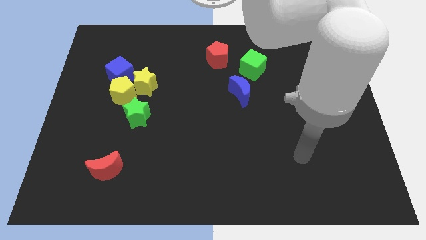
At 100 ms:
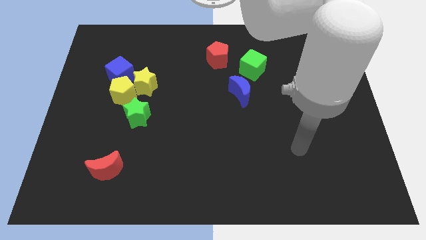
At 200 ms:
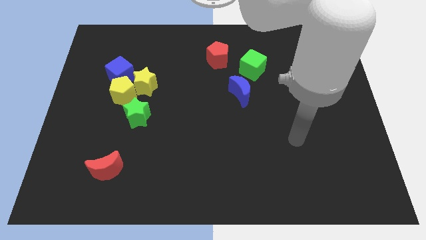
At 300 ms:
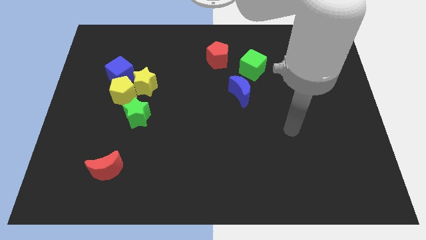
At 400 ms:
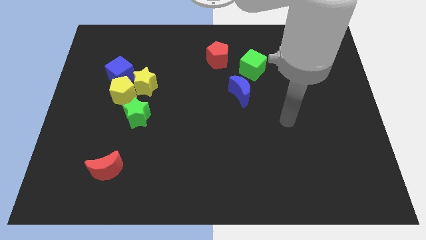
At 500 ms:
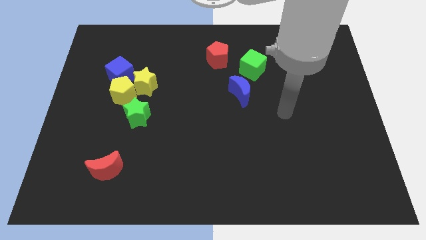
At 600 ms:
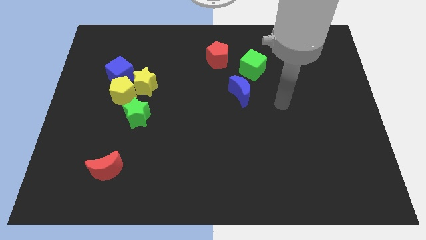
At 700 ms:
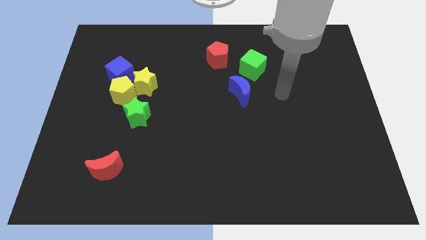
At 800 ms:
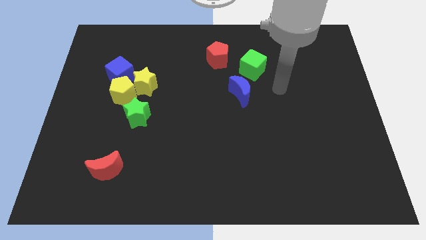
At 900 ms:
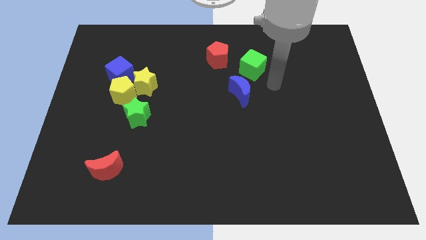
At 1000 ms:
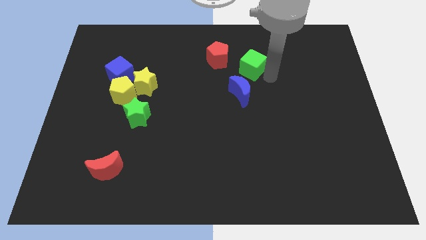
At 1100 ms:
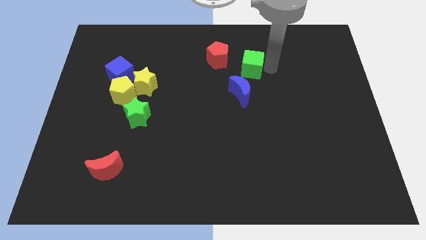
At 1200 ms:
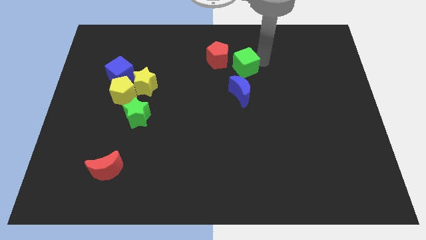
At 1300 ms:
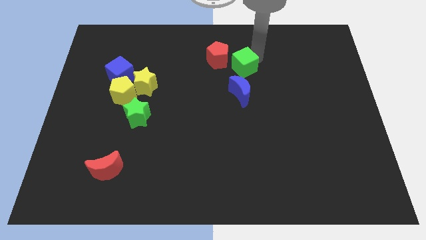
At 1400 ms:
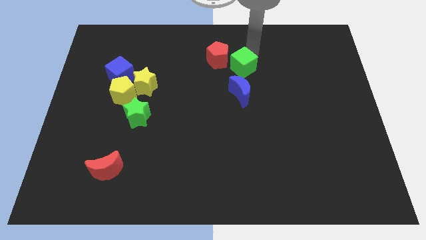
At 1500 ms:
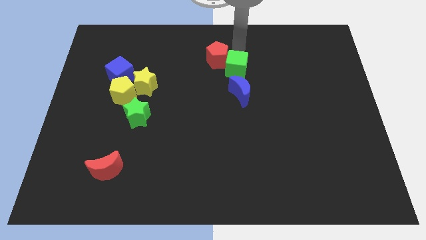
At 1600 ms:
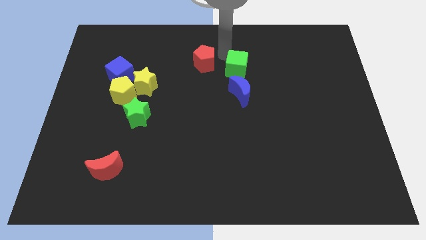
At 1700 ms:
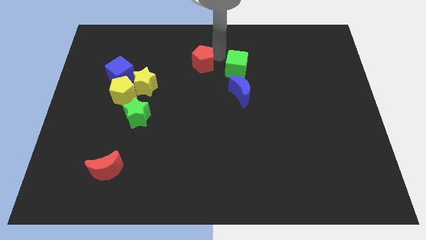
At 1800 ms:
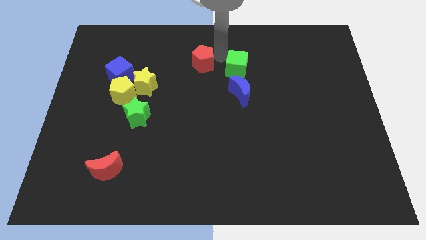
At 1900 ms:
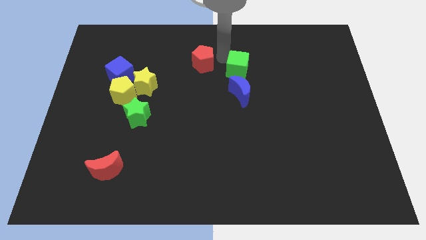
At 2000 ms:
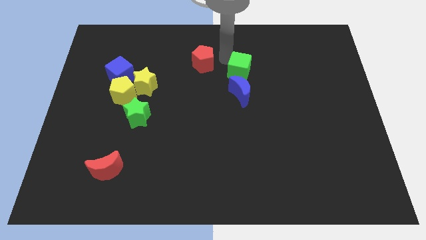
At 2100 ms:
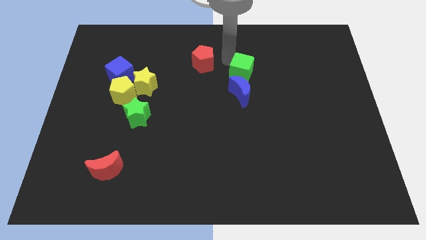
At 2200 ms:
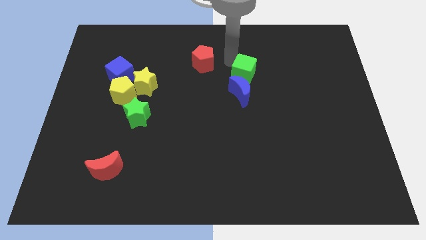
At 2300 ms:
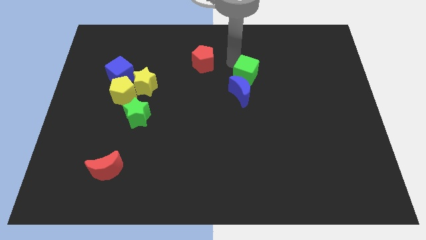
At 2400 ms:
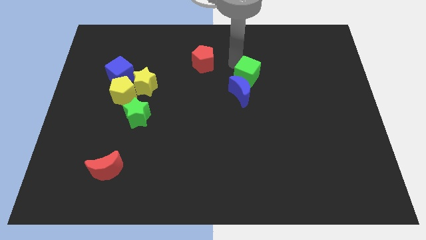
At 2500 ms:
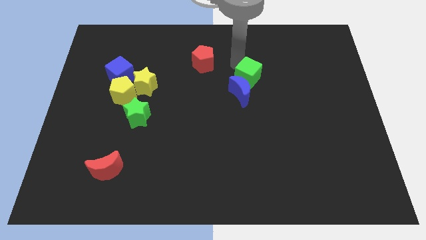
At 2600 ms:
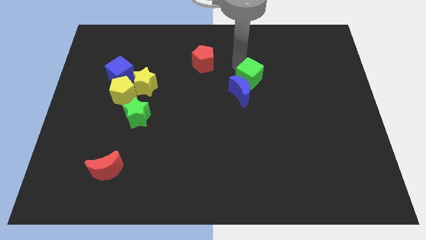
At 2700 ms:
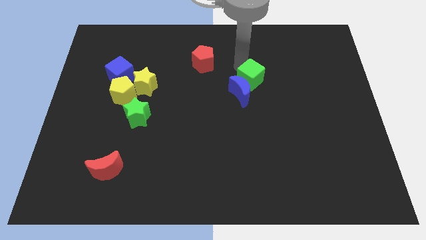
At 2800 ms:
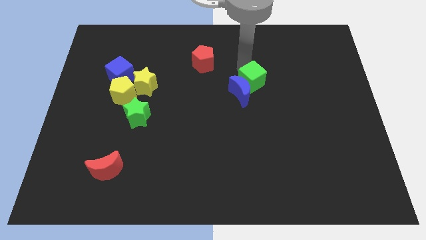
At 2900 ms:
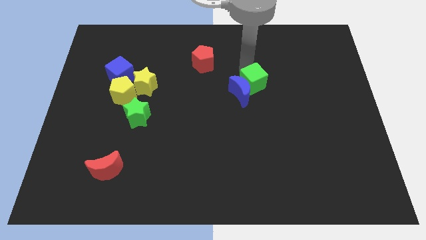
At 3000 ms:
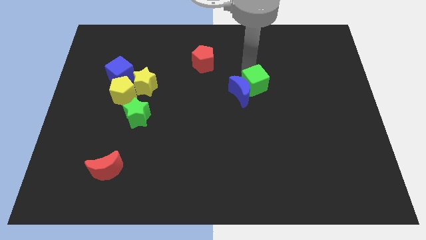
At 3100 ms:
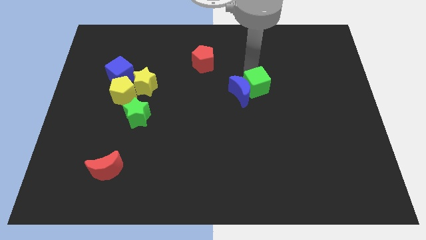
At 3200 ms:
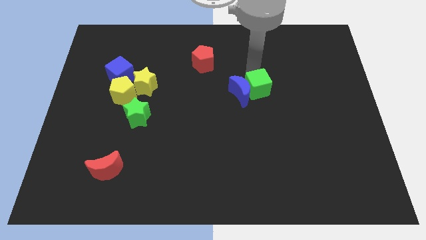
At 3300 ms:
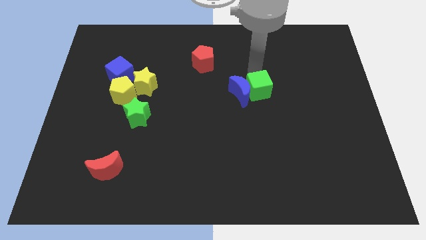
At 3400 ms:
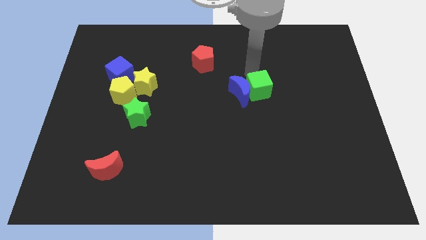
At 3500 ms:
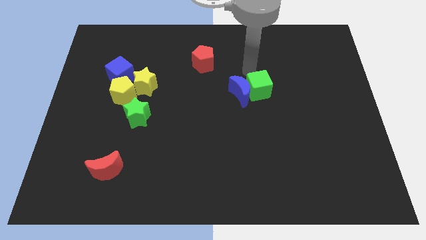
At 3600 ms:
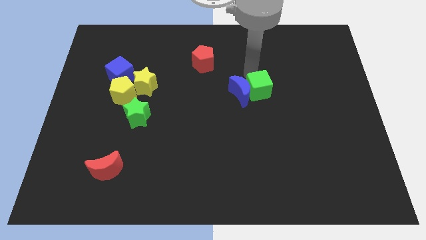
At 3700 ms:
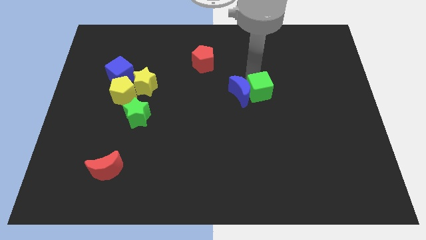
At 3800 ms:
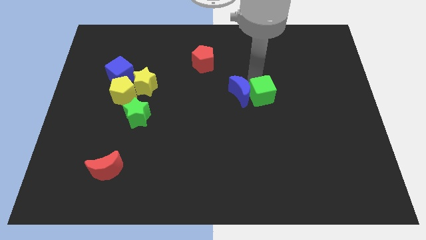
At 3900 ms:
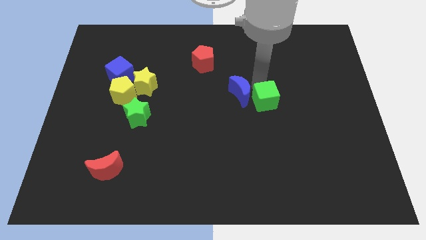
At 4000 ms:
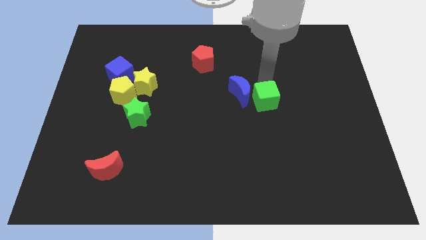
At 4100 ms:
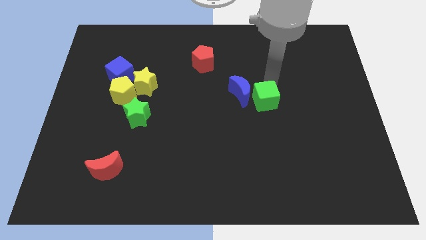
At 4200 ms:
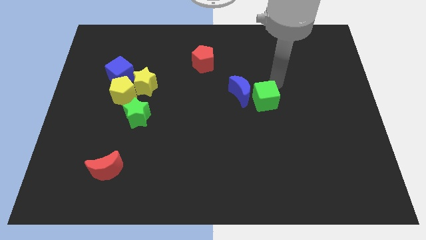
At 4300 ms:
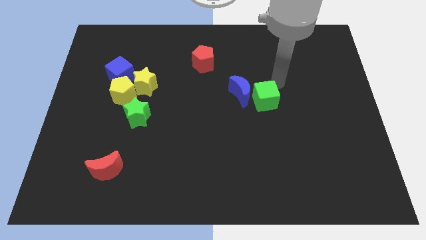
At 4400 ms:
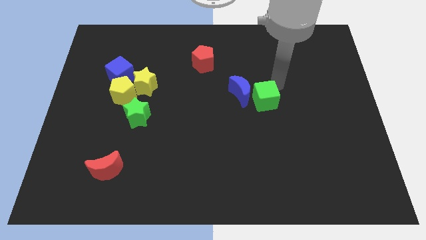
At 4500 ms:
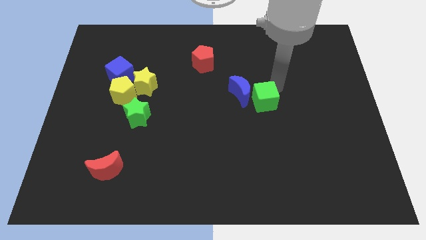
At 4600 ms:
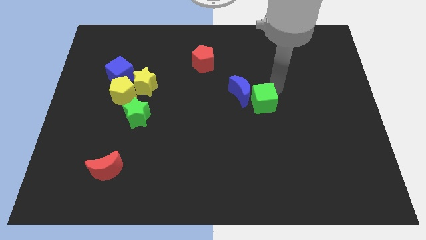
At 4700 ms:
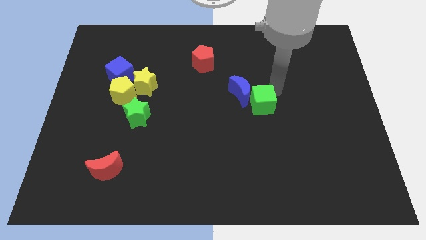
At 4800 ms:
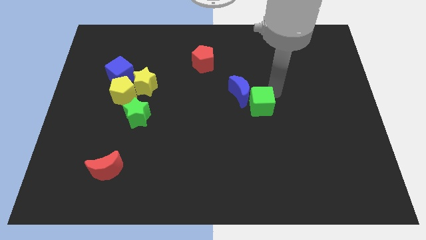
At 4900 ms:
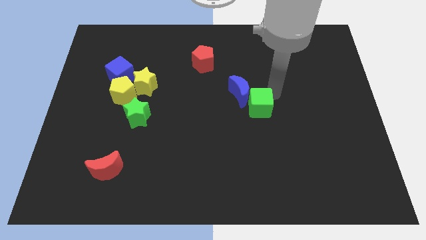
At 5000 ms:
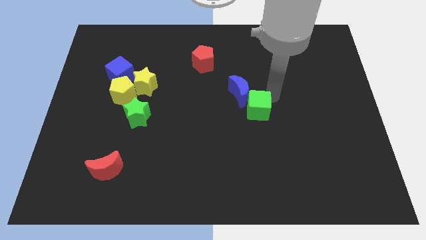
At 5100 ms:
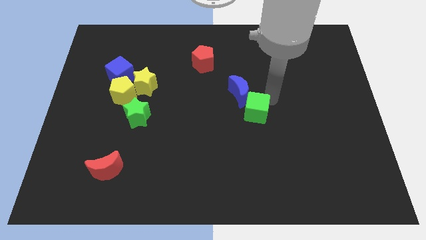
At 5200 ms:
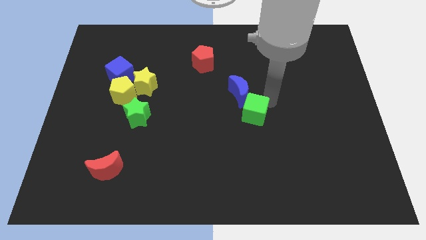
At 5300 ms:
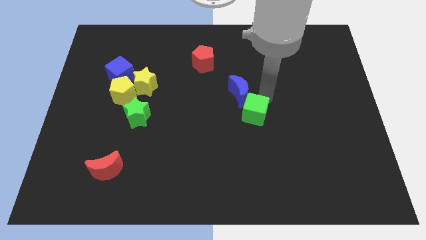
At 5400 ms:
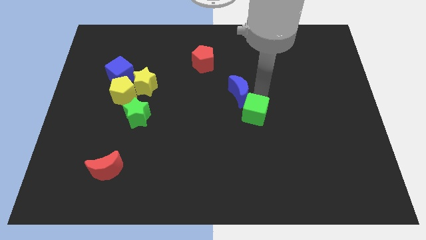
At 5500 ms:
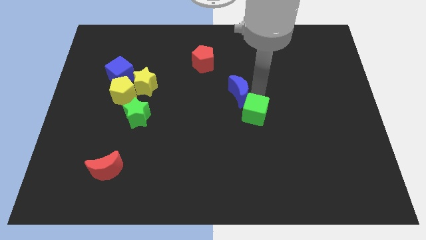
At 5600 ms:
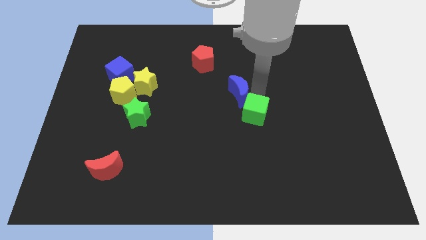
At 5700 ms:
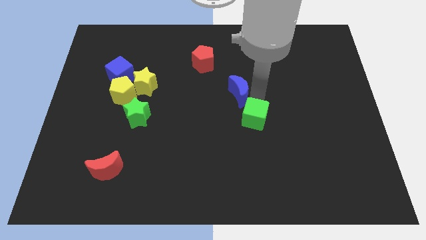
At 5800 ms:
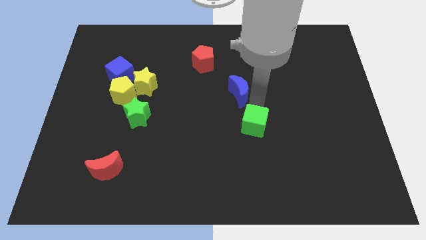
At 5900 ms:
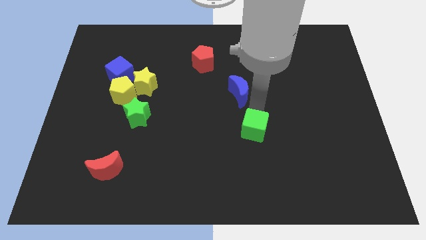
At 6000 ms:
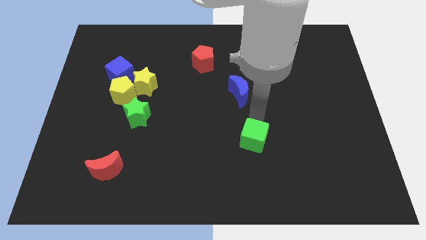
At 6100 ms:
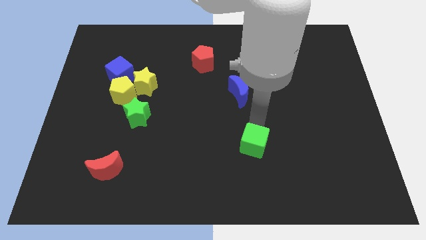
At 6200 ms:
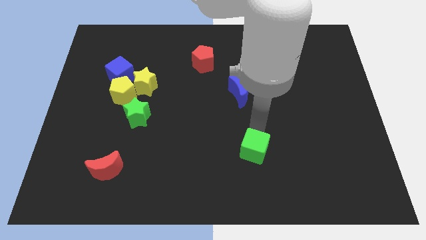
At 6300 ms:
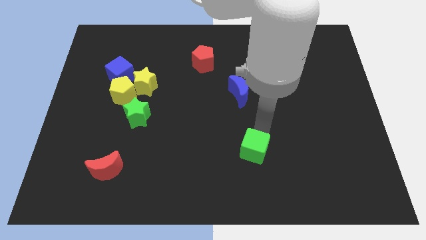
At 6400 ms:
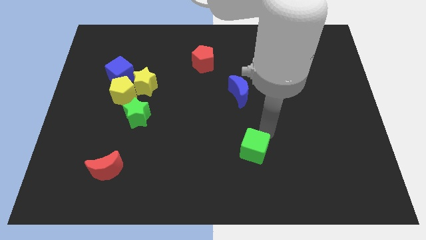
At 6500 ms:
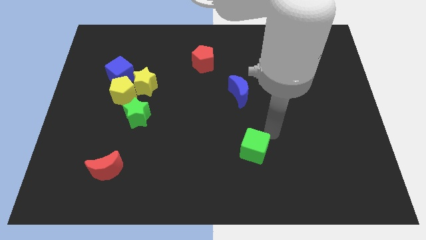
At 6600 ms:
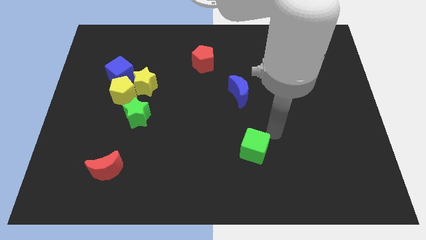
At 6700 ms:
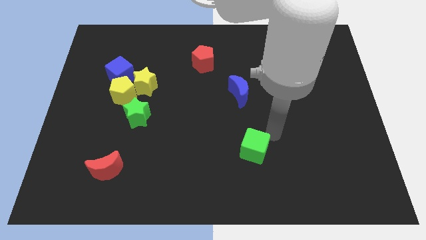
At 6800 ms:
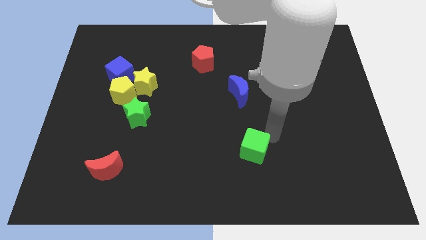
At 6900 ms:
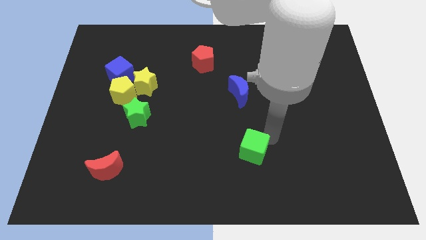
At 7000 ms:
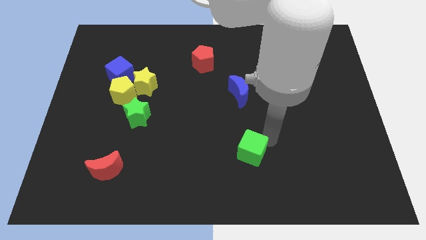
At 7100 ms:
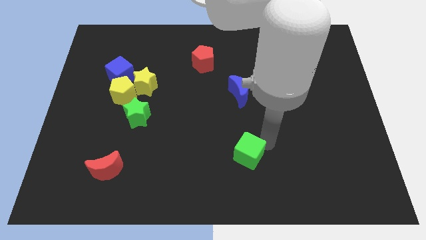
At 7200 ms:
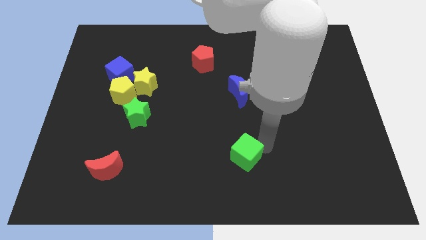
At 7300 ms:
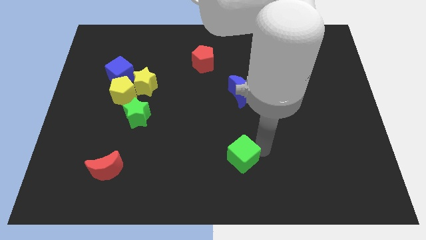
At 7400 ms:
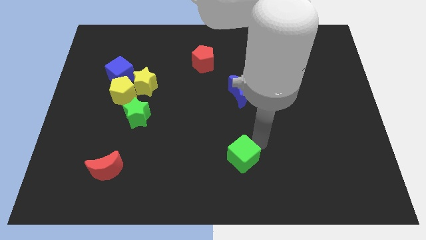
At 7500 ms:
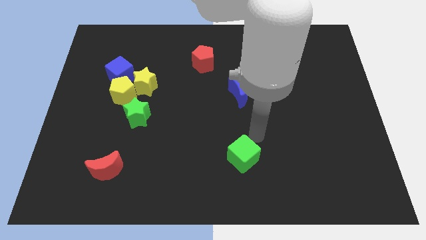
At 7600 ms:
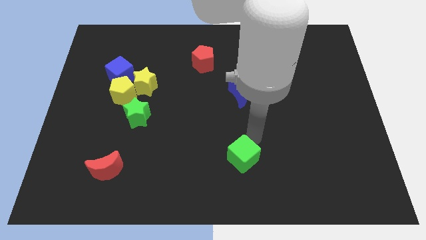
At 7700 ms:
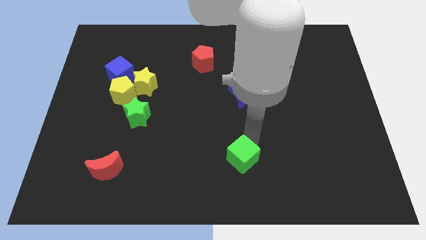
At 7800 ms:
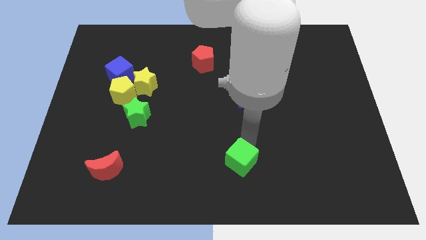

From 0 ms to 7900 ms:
move the green cube to the bottom
